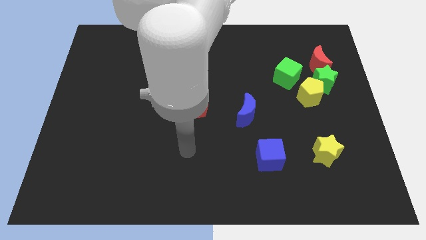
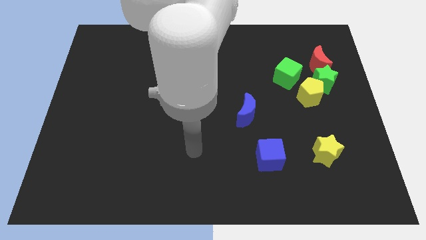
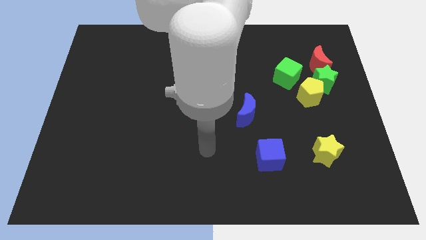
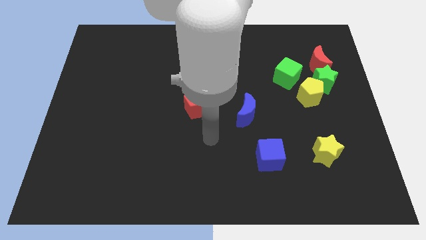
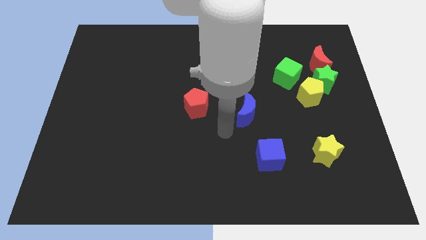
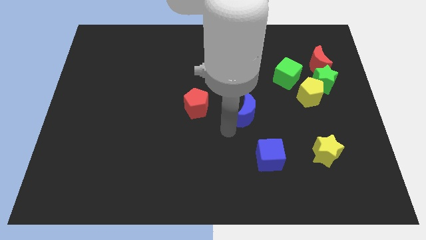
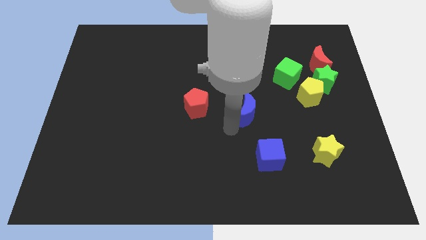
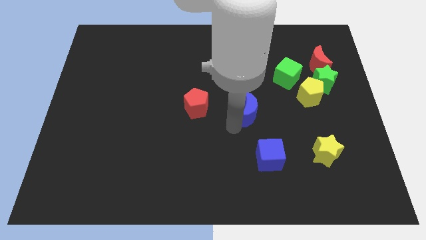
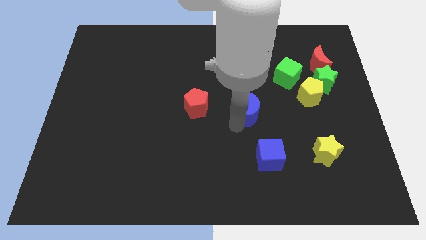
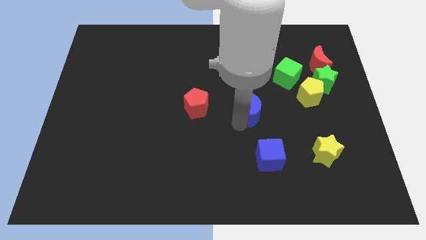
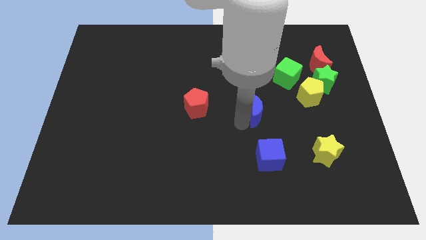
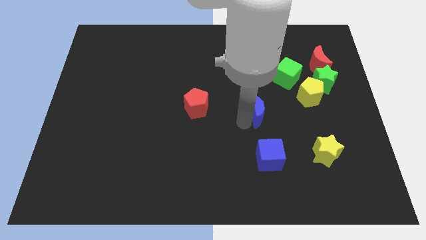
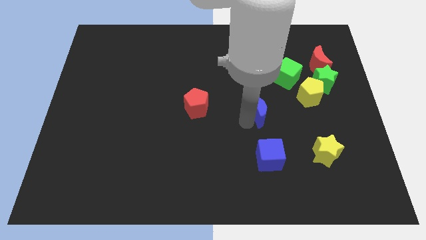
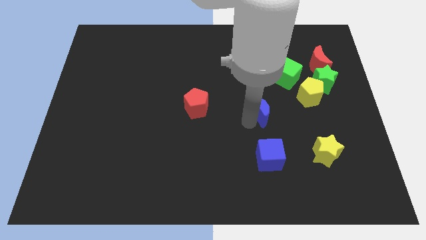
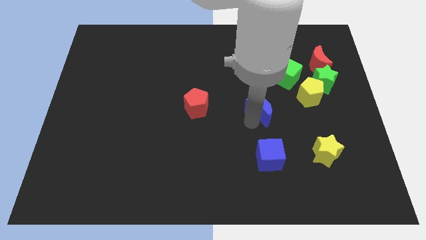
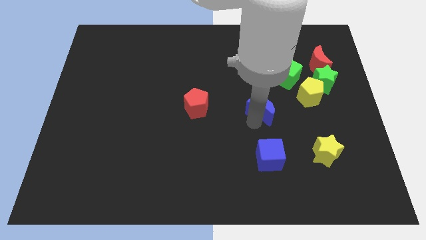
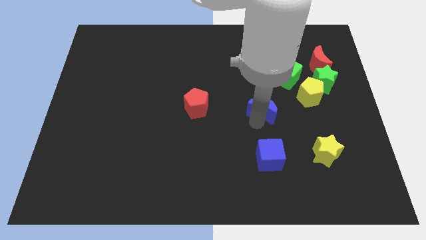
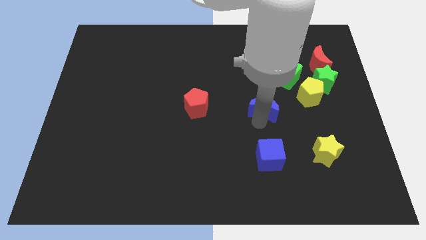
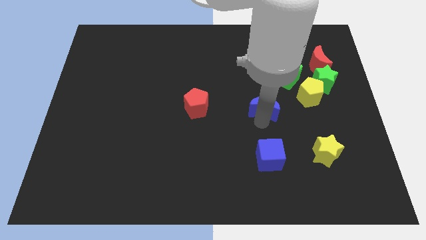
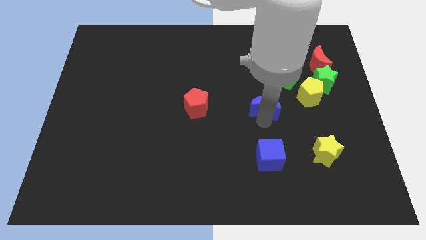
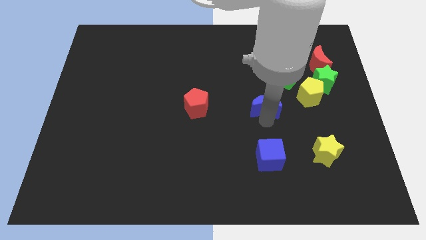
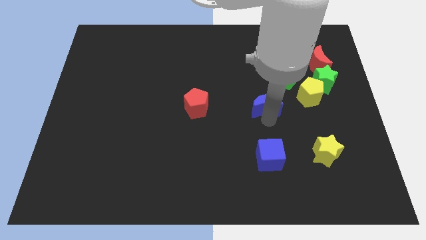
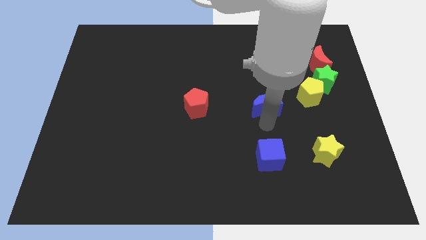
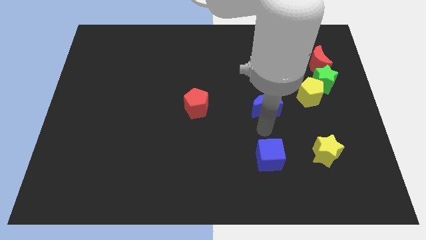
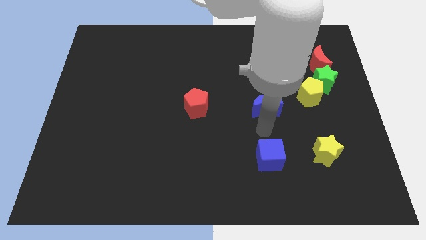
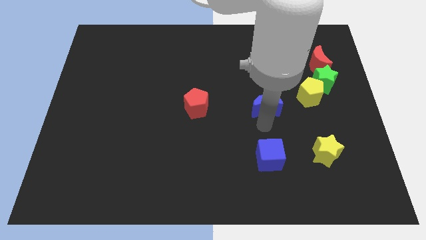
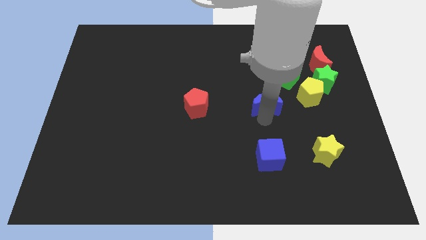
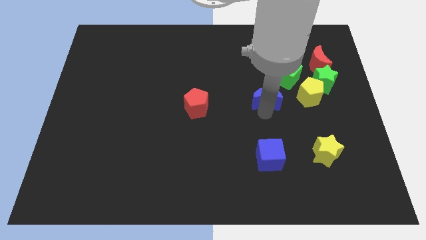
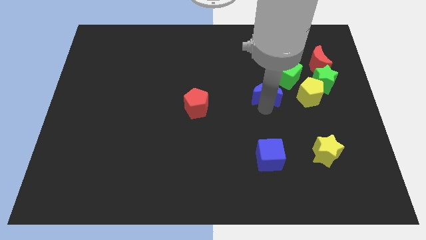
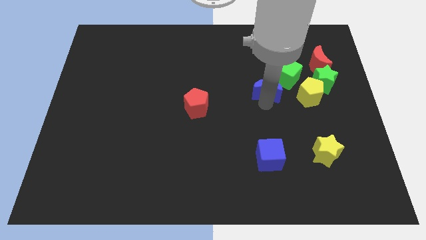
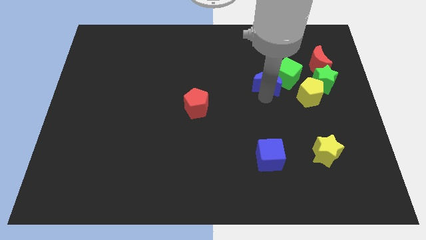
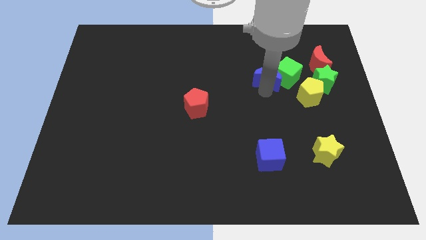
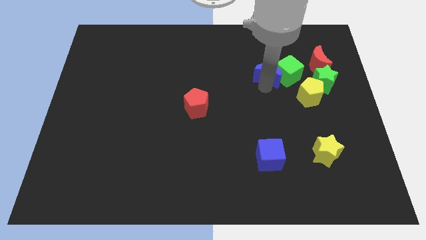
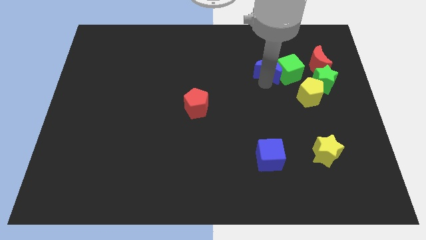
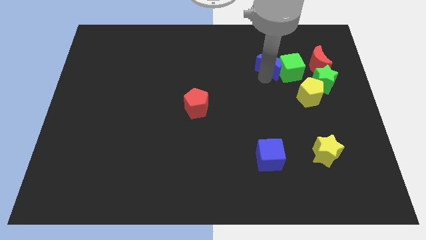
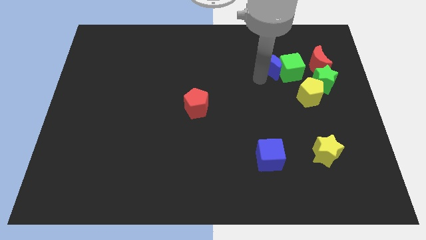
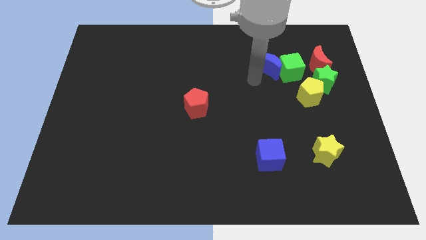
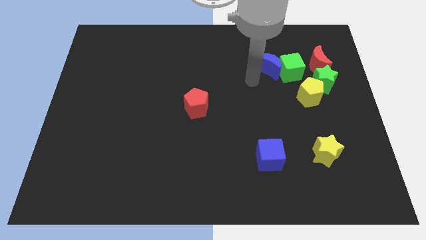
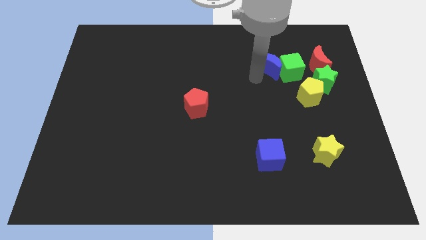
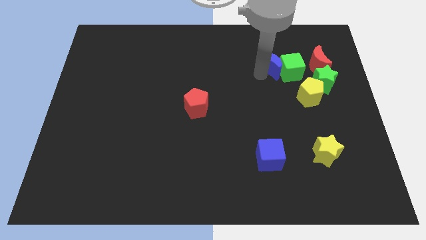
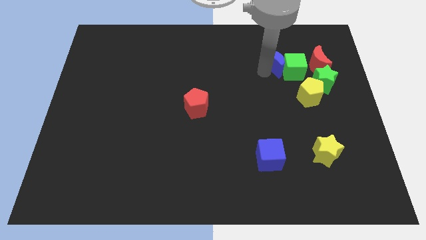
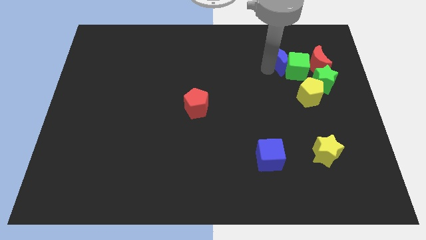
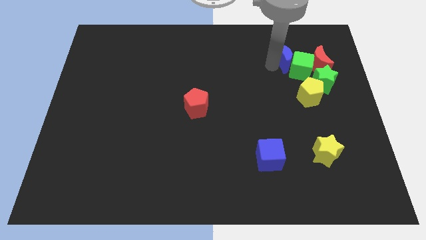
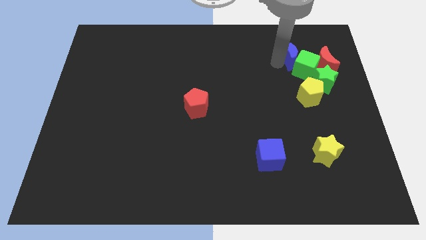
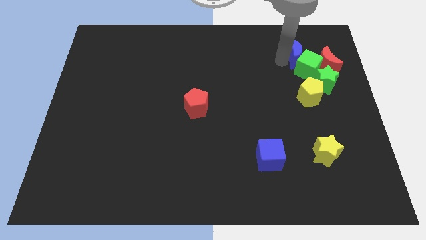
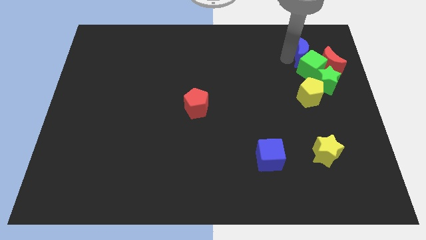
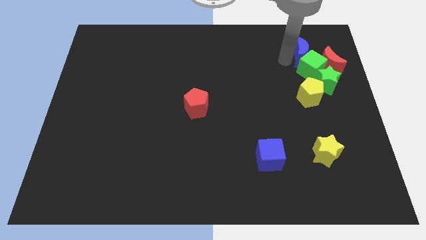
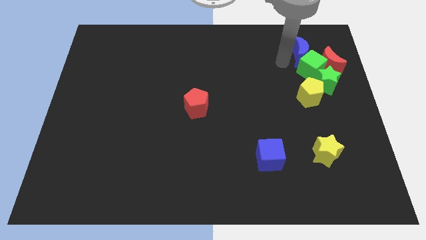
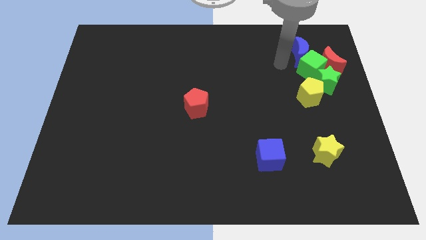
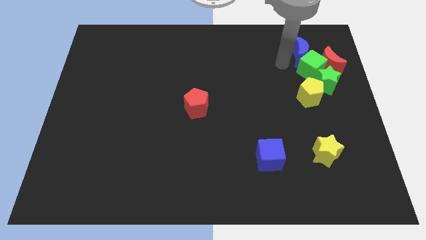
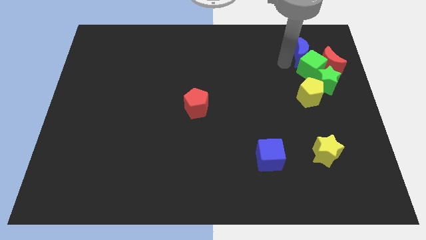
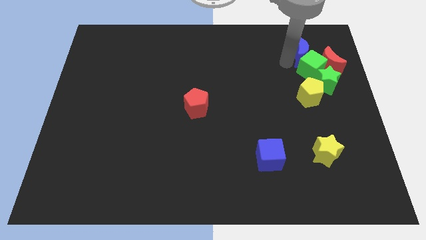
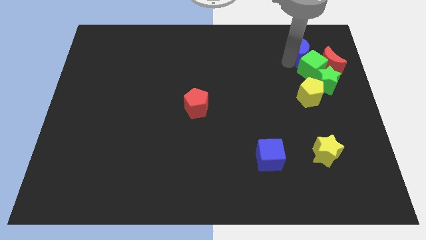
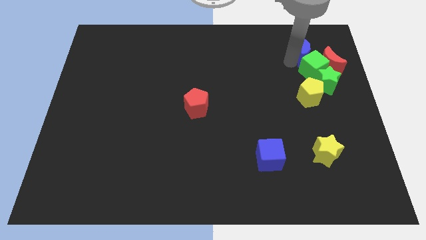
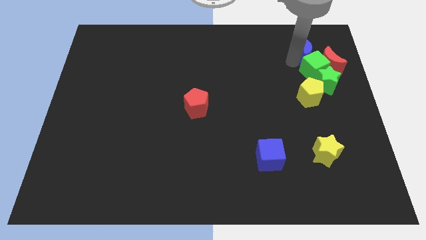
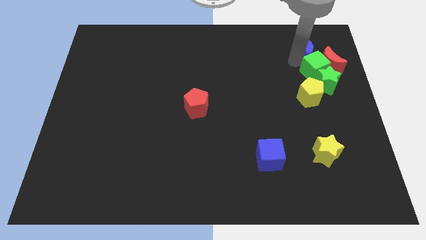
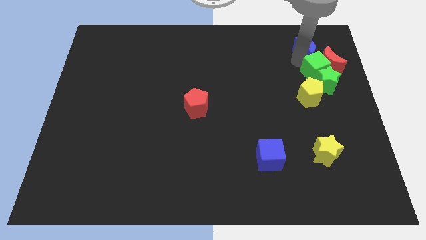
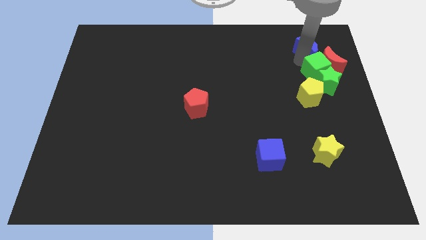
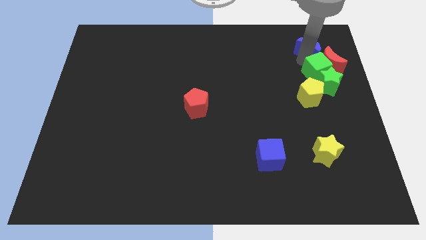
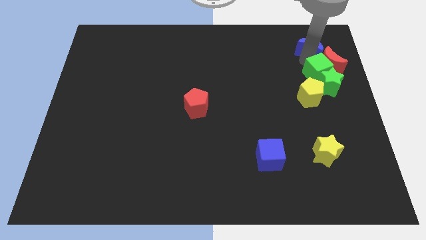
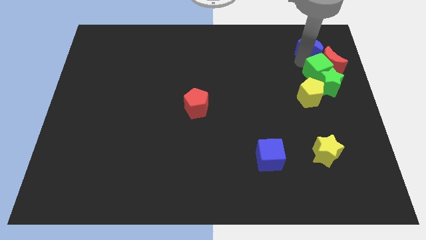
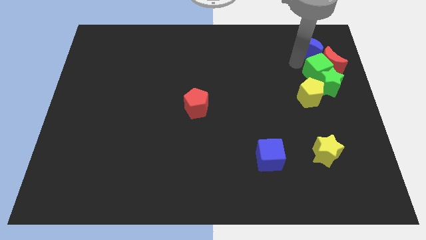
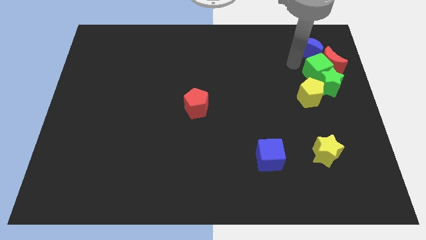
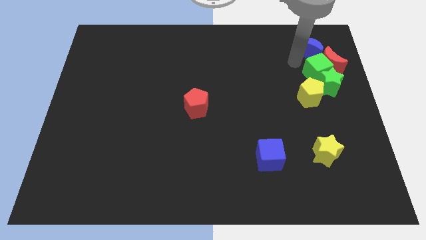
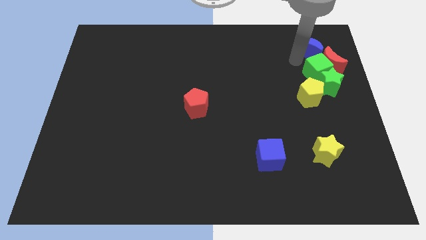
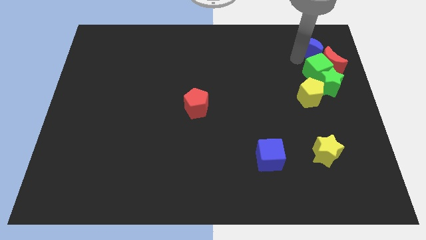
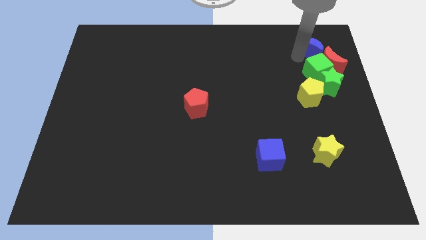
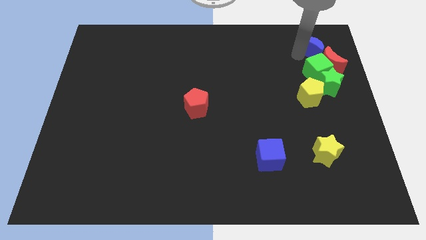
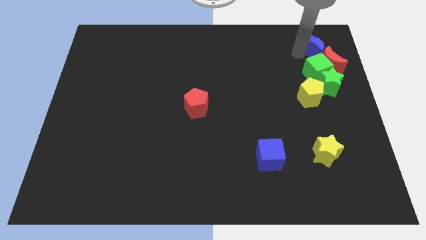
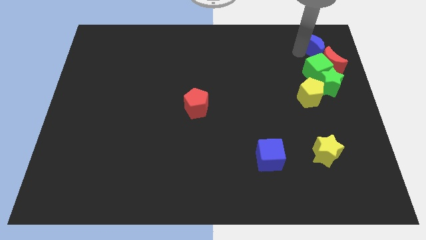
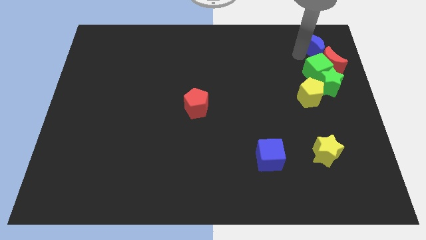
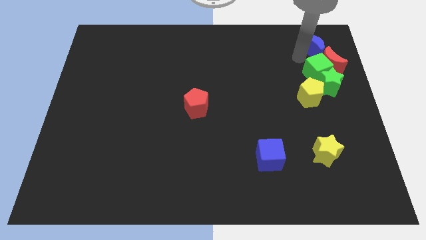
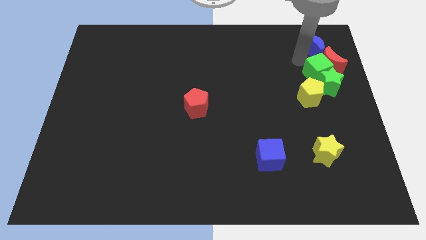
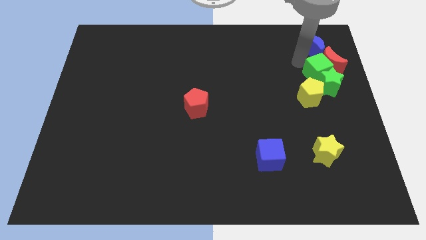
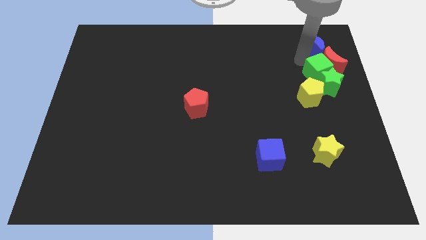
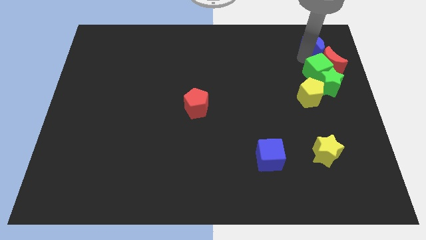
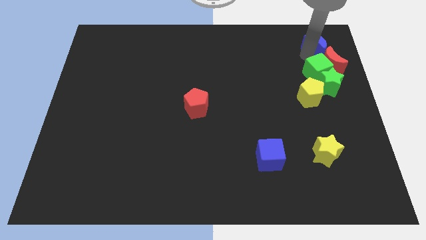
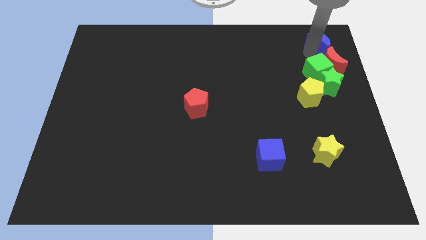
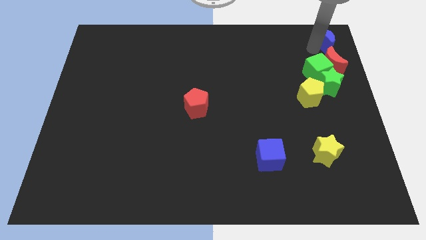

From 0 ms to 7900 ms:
put the blue moon to the upper right corner
